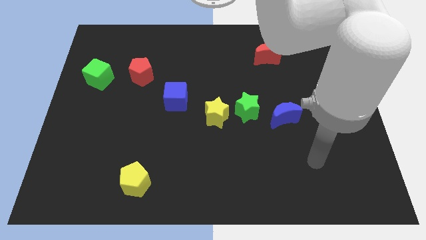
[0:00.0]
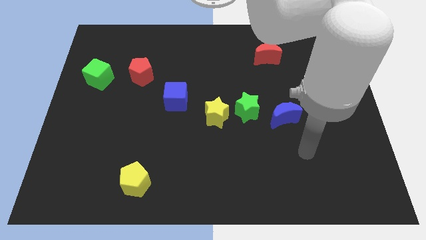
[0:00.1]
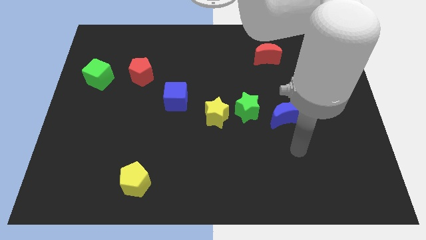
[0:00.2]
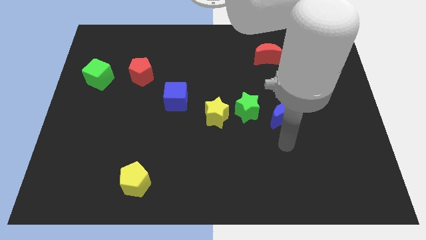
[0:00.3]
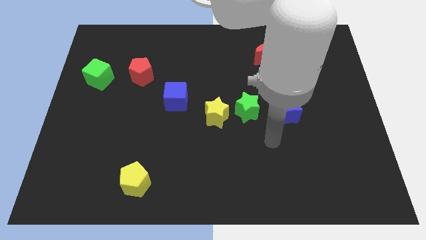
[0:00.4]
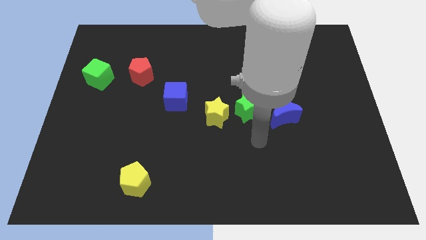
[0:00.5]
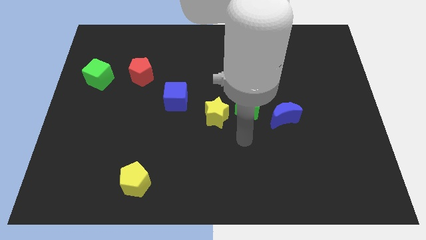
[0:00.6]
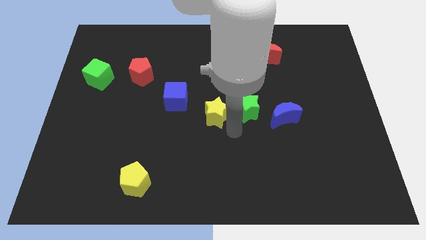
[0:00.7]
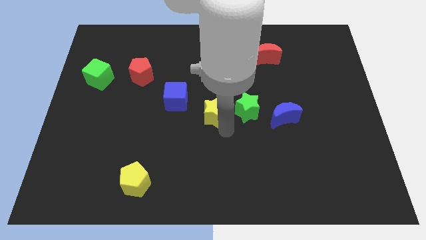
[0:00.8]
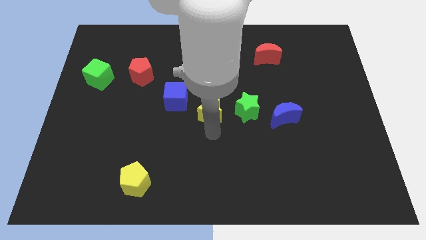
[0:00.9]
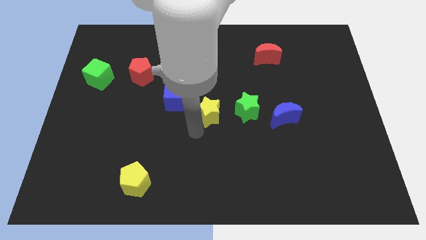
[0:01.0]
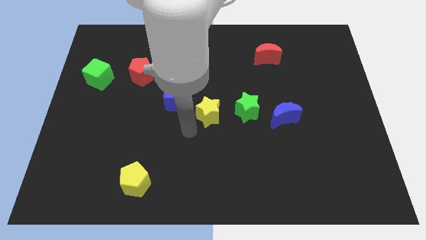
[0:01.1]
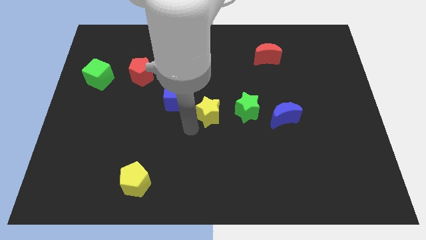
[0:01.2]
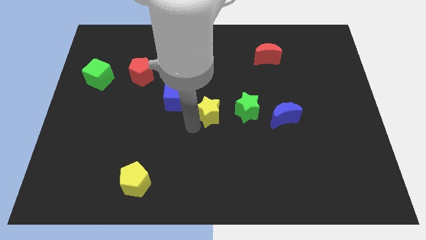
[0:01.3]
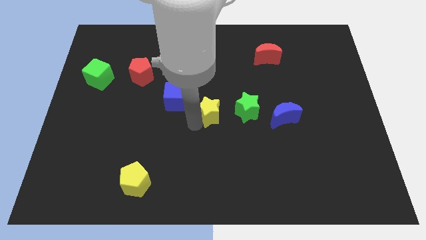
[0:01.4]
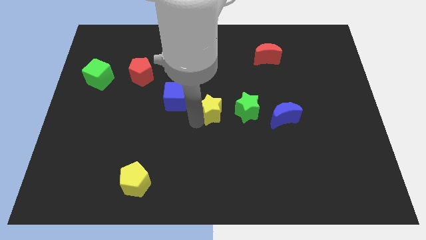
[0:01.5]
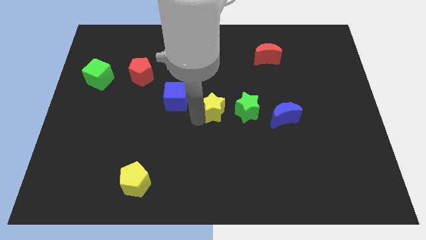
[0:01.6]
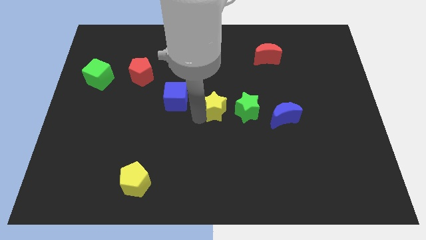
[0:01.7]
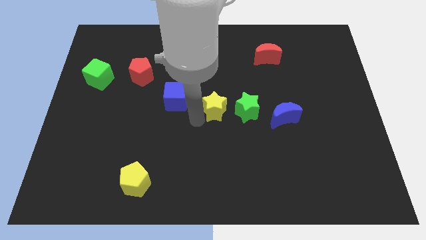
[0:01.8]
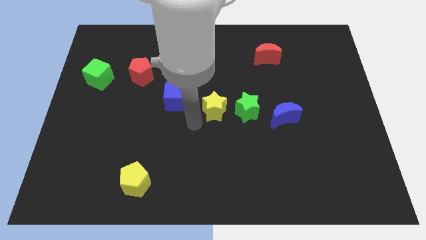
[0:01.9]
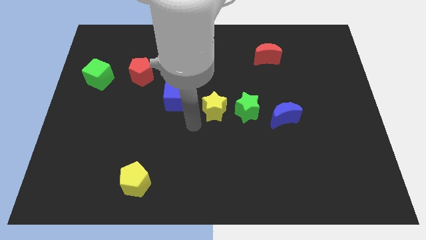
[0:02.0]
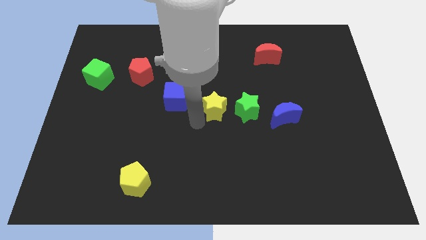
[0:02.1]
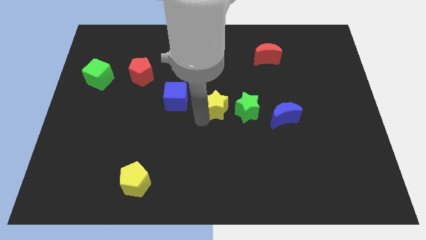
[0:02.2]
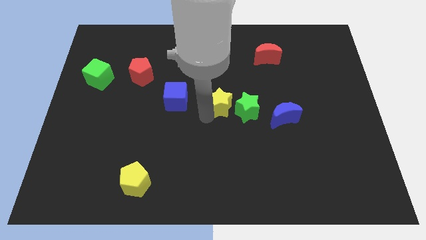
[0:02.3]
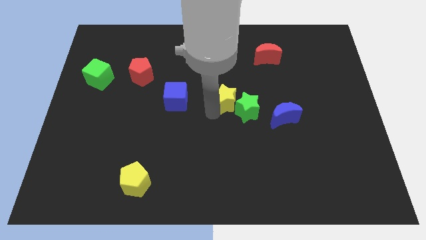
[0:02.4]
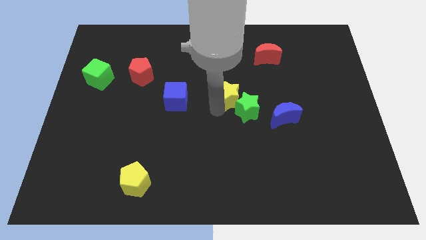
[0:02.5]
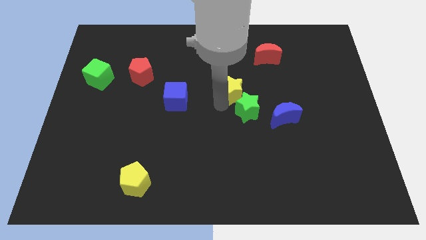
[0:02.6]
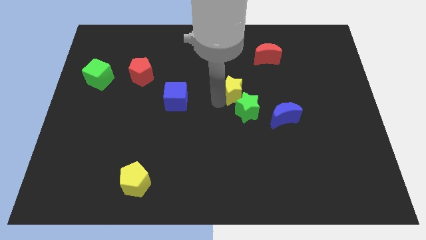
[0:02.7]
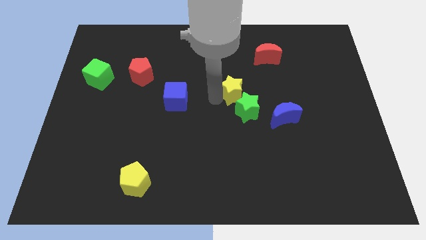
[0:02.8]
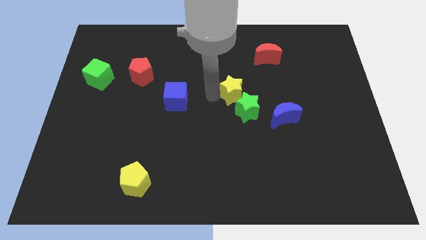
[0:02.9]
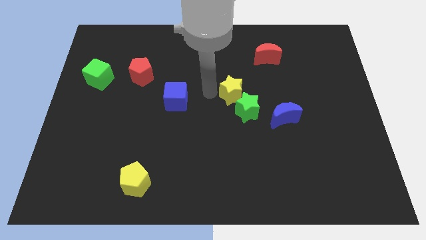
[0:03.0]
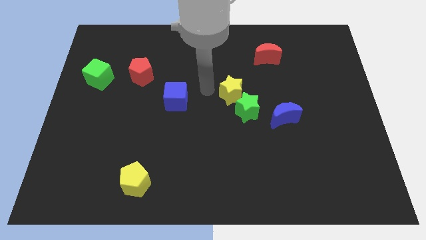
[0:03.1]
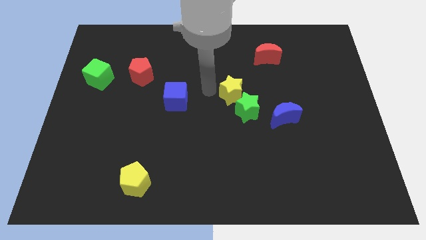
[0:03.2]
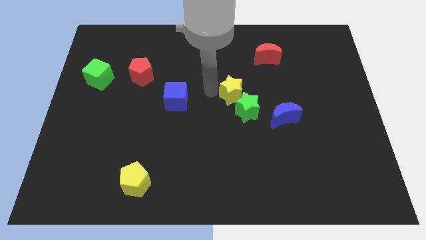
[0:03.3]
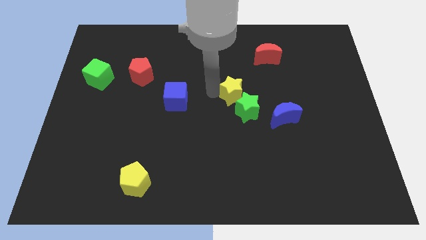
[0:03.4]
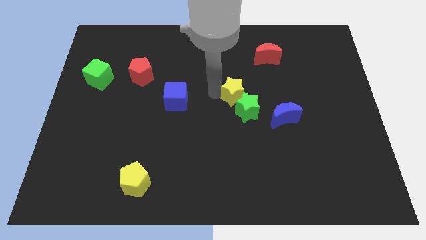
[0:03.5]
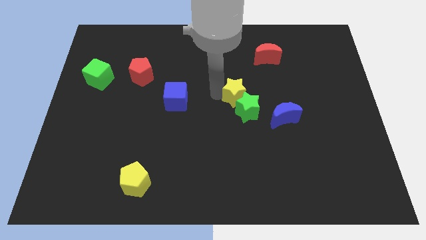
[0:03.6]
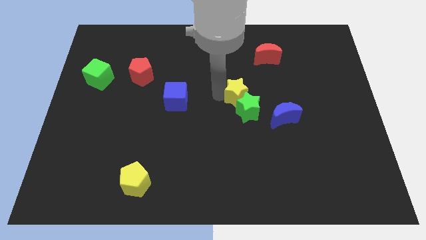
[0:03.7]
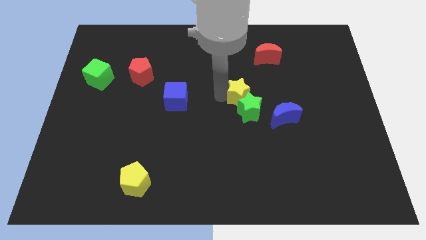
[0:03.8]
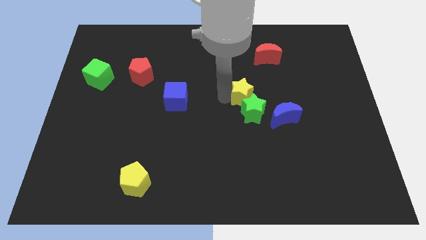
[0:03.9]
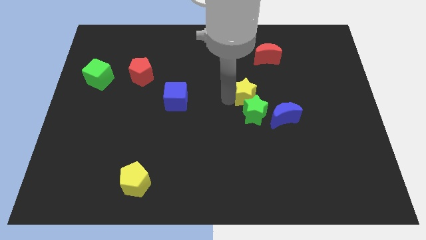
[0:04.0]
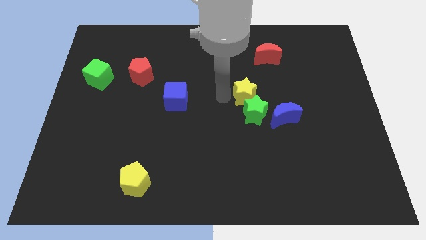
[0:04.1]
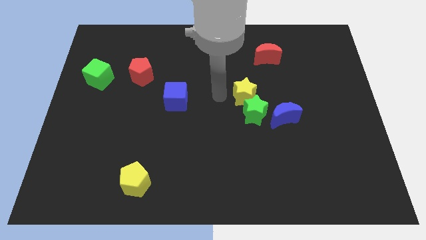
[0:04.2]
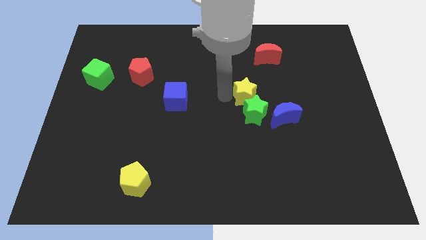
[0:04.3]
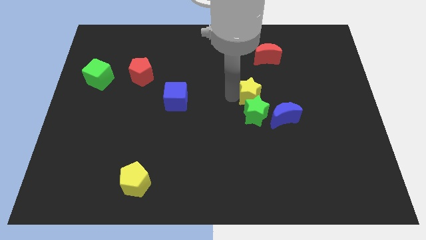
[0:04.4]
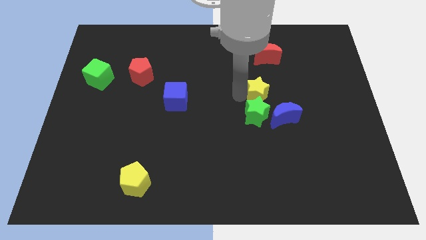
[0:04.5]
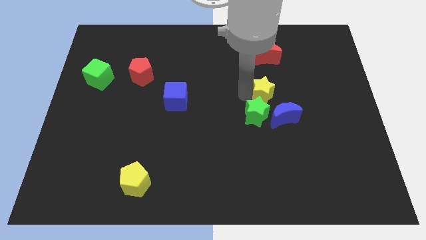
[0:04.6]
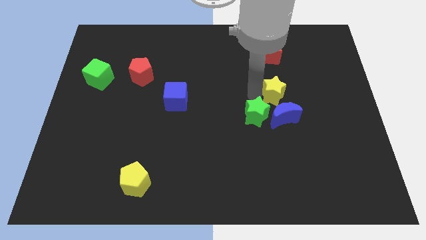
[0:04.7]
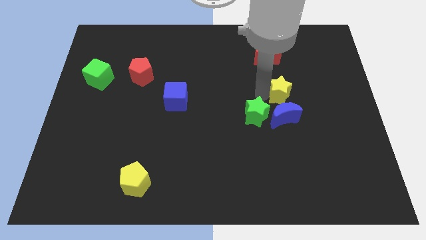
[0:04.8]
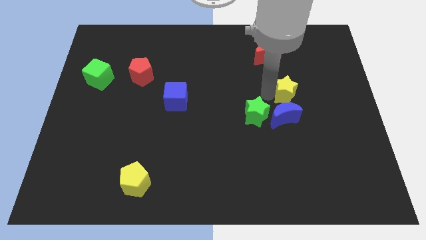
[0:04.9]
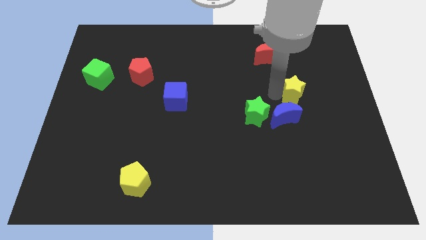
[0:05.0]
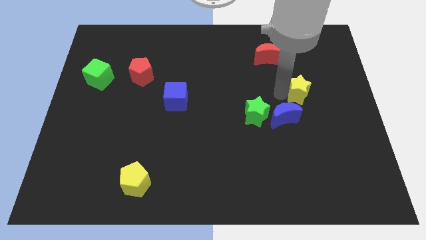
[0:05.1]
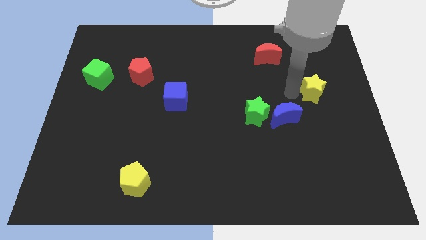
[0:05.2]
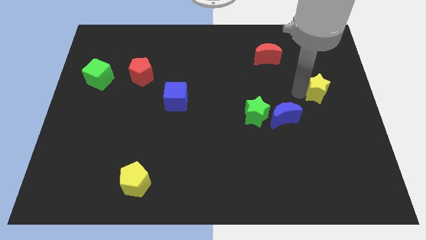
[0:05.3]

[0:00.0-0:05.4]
put the yellow star to the center right
